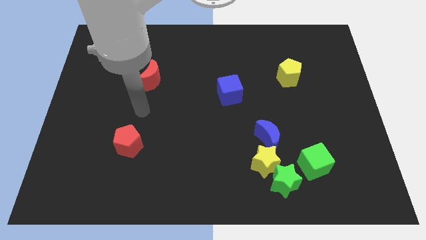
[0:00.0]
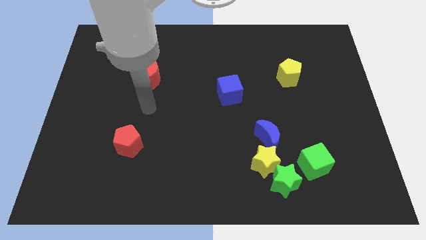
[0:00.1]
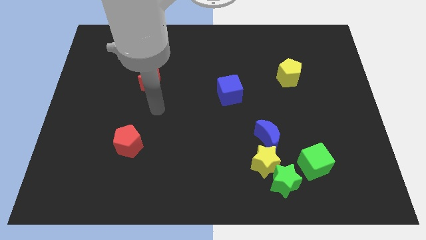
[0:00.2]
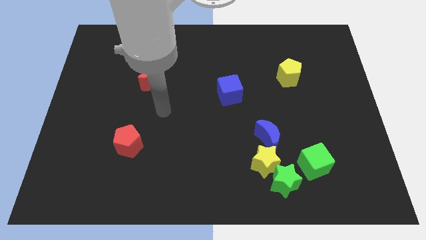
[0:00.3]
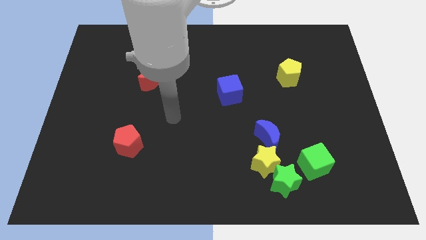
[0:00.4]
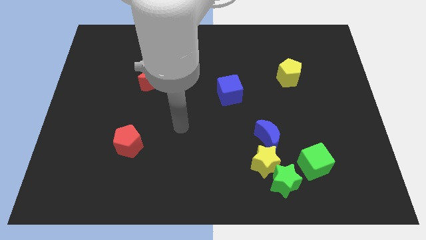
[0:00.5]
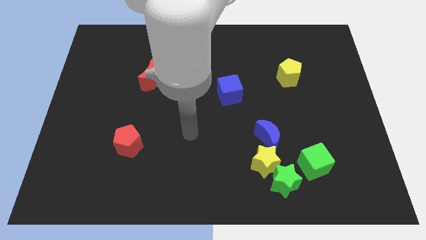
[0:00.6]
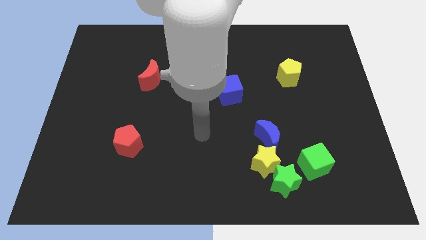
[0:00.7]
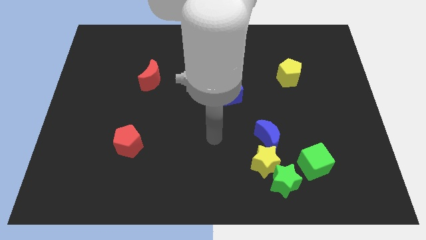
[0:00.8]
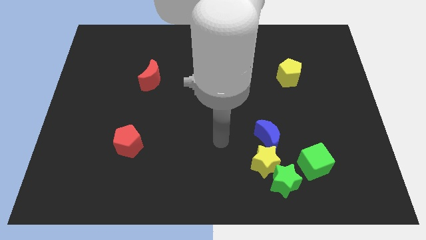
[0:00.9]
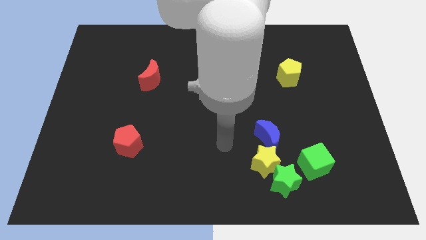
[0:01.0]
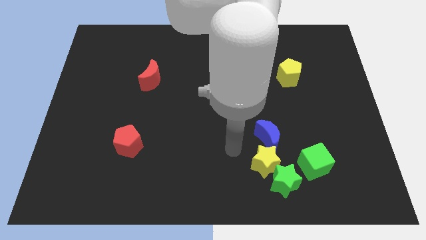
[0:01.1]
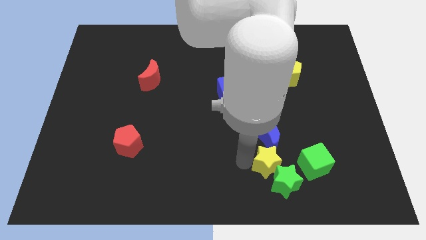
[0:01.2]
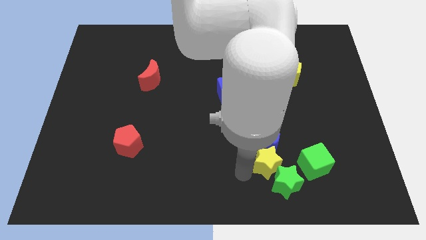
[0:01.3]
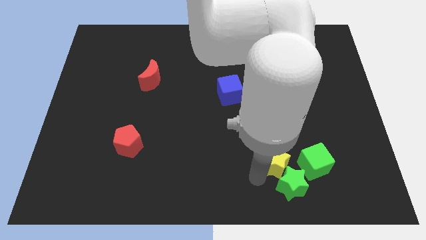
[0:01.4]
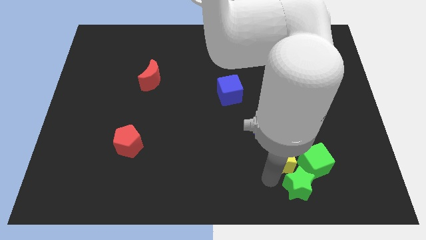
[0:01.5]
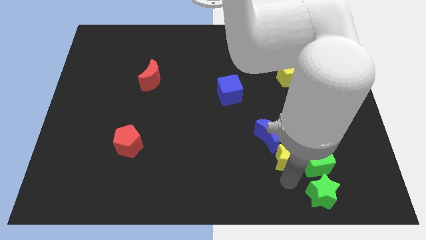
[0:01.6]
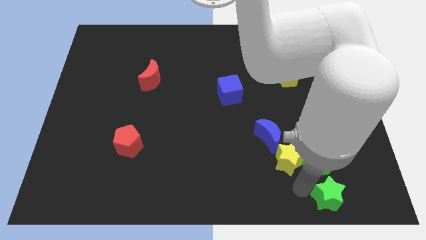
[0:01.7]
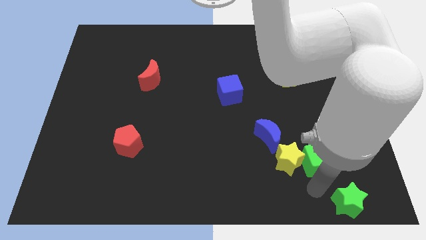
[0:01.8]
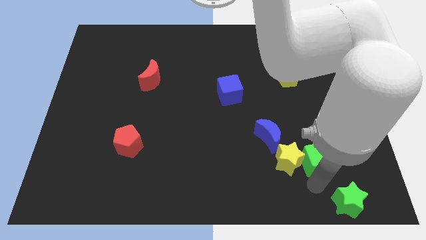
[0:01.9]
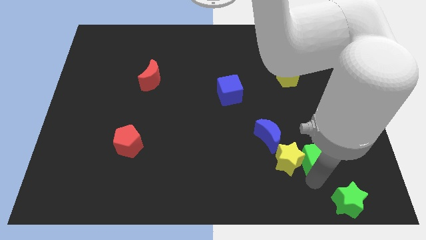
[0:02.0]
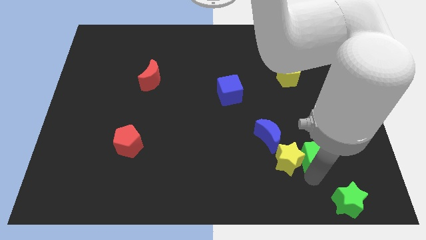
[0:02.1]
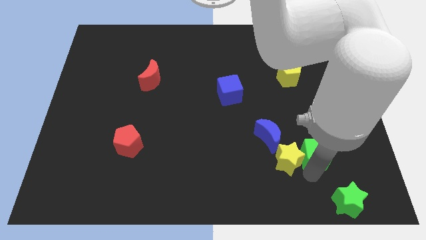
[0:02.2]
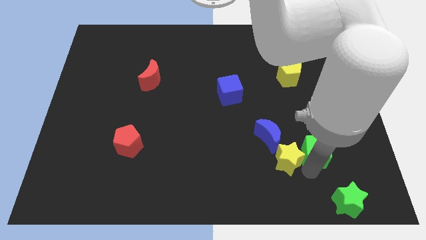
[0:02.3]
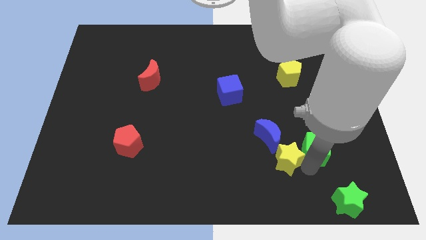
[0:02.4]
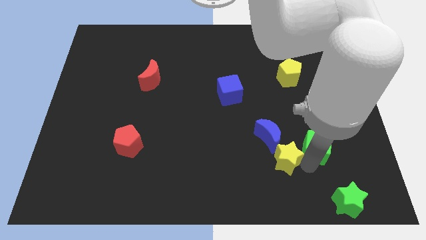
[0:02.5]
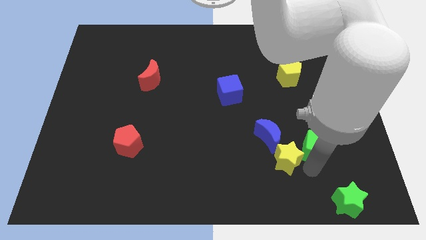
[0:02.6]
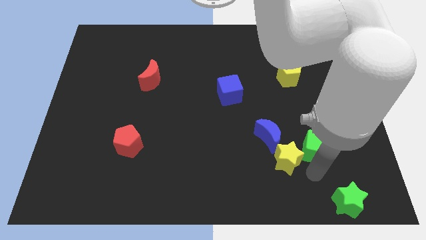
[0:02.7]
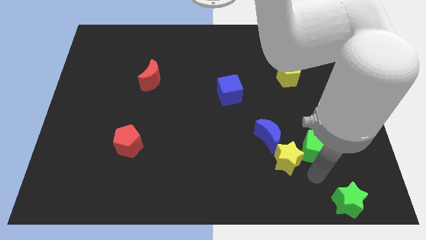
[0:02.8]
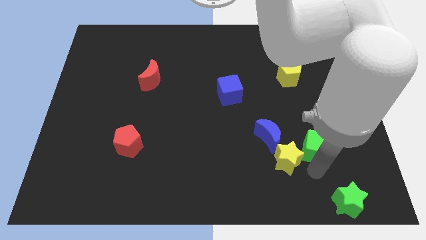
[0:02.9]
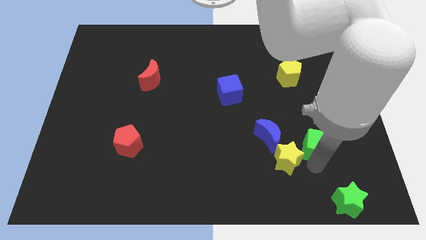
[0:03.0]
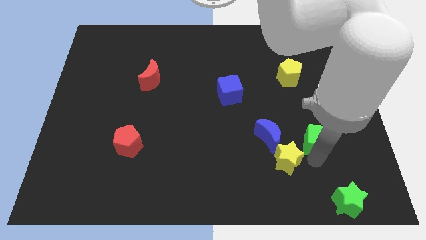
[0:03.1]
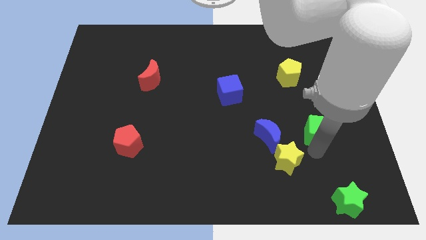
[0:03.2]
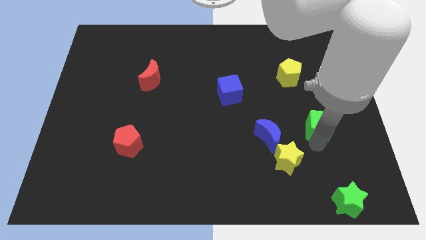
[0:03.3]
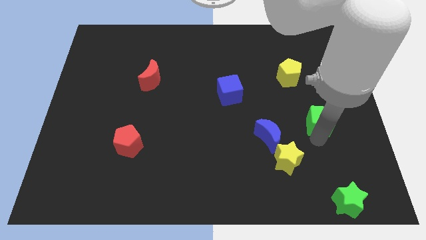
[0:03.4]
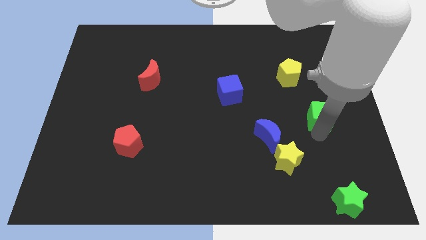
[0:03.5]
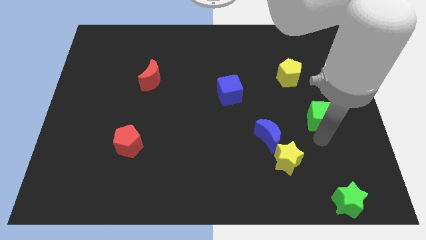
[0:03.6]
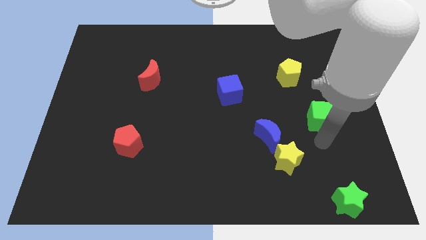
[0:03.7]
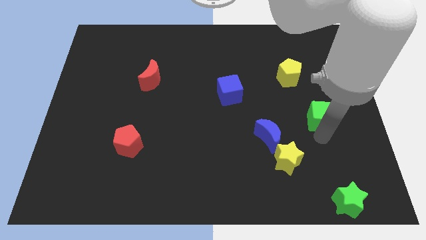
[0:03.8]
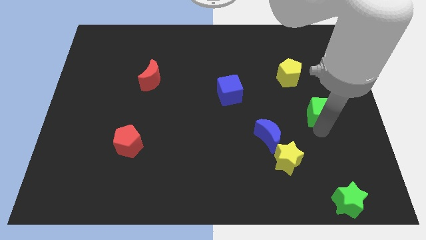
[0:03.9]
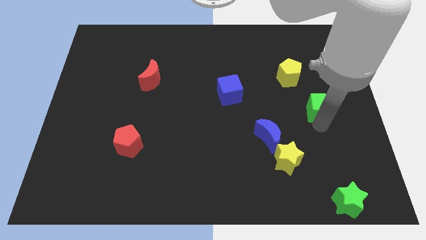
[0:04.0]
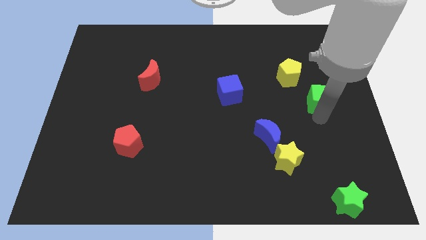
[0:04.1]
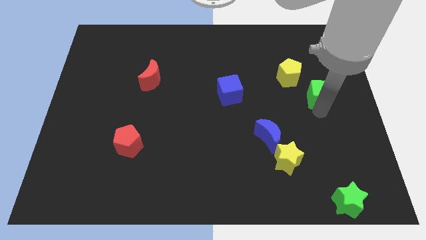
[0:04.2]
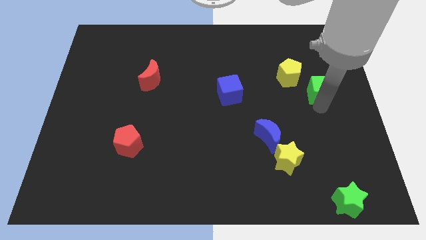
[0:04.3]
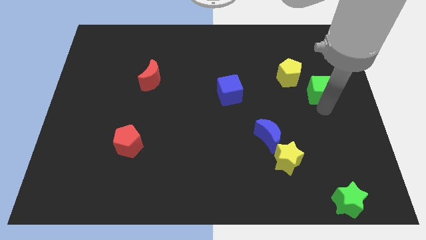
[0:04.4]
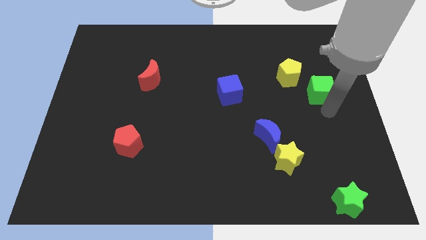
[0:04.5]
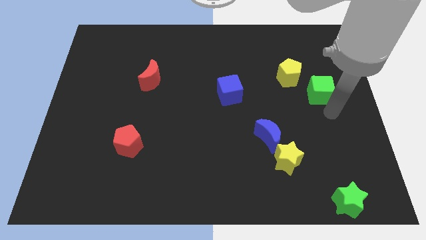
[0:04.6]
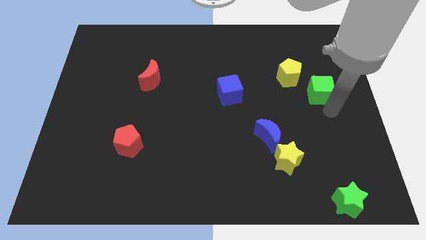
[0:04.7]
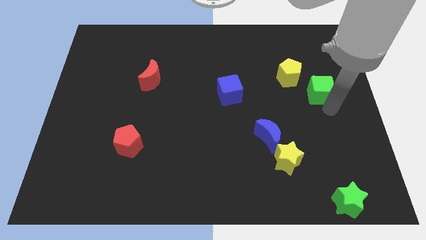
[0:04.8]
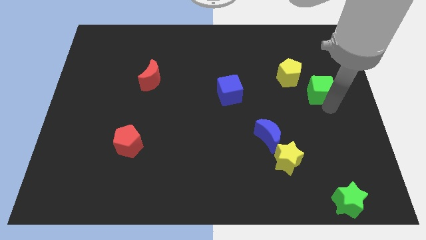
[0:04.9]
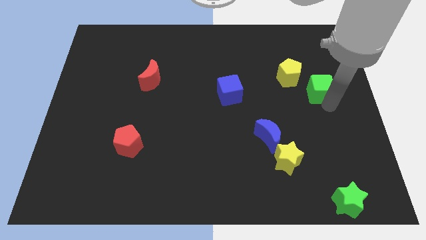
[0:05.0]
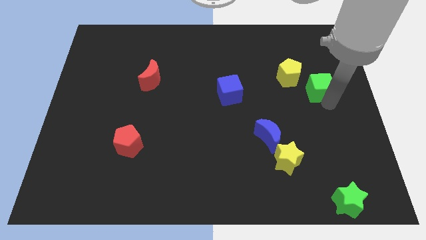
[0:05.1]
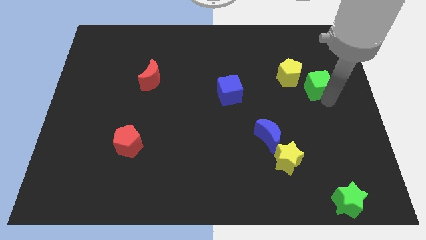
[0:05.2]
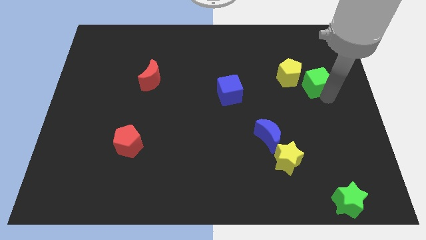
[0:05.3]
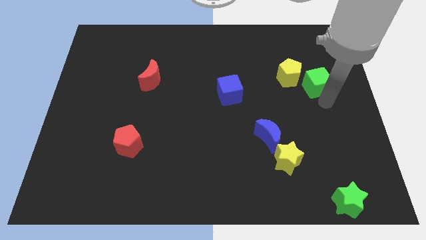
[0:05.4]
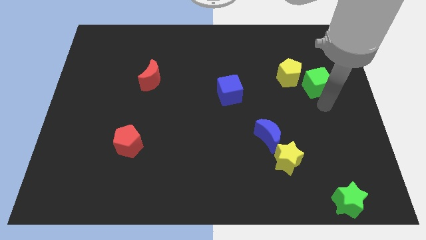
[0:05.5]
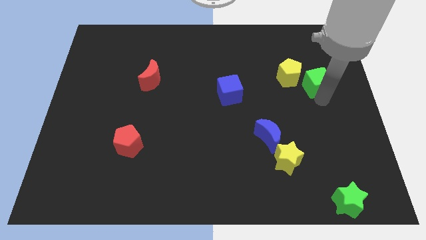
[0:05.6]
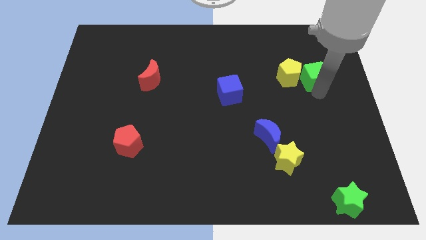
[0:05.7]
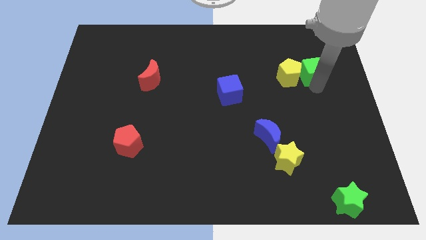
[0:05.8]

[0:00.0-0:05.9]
push the green cube diagonally up and to the right of the yellow pentagon

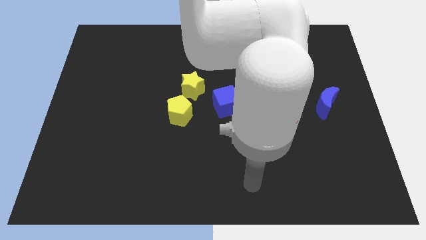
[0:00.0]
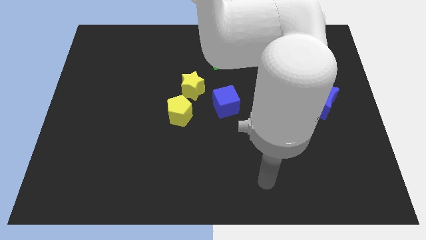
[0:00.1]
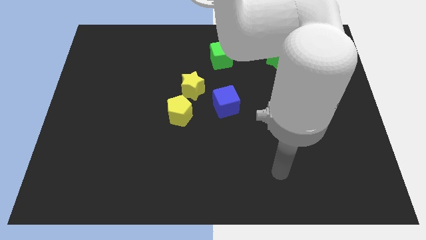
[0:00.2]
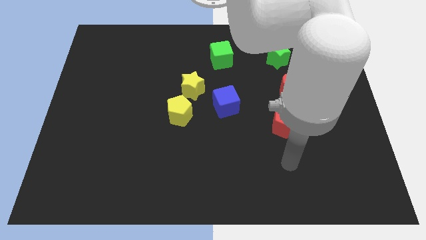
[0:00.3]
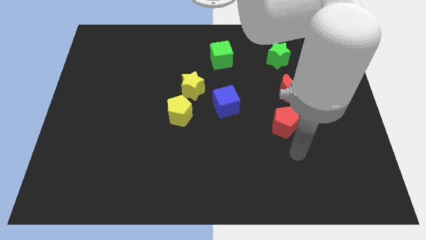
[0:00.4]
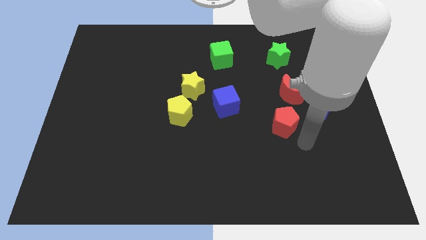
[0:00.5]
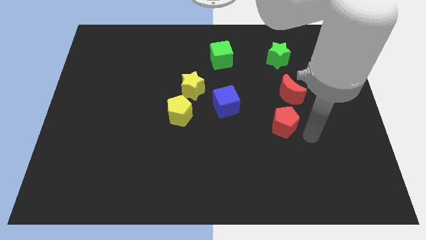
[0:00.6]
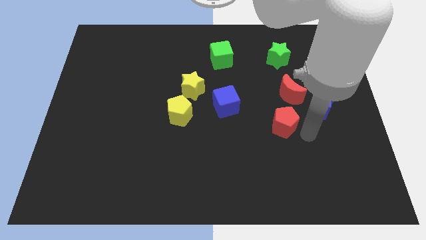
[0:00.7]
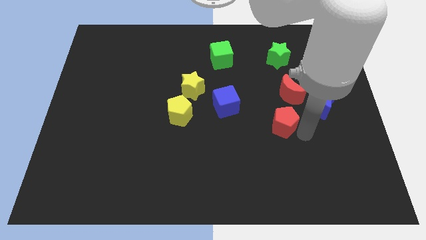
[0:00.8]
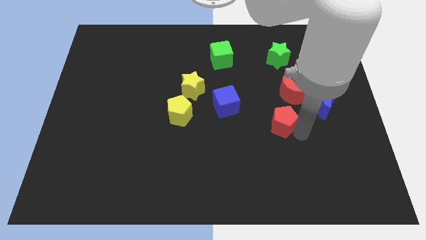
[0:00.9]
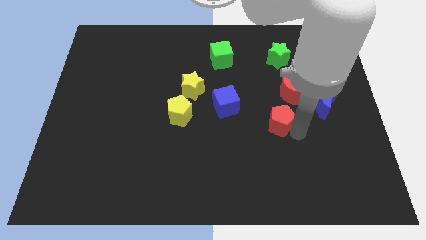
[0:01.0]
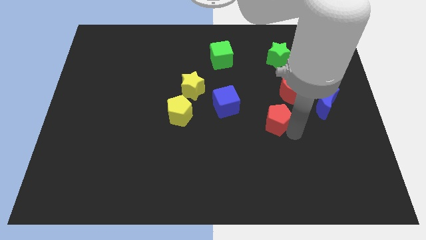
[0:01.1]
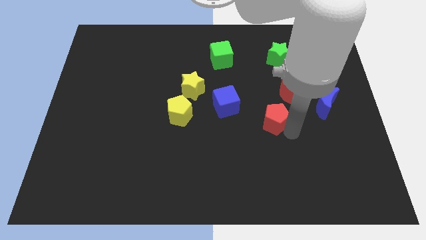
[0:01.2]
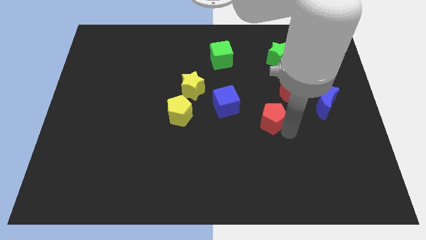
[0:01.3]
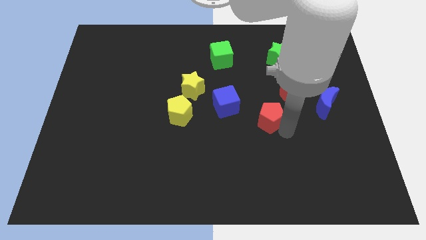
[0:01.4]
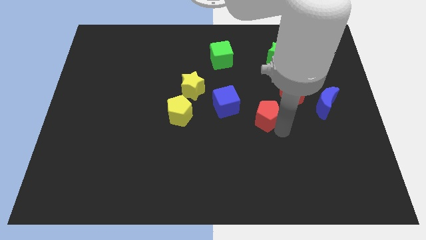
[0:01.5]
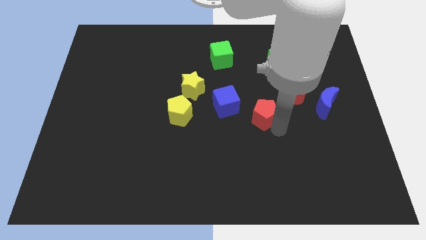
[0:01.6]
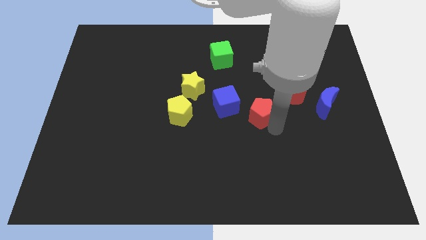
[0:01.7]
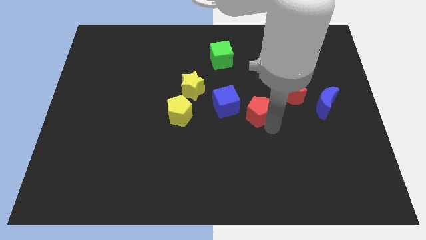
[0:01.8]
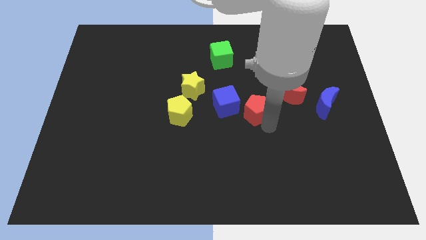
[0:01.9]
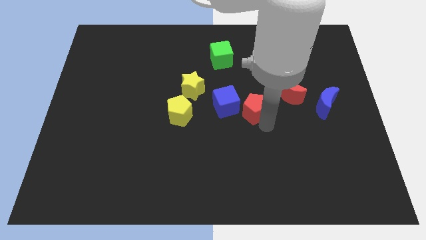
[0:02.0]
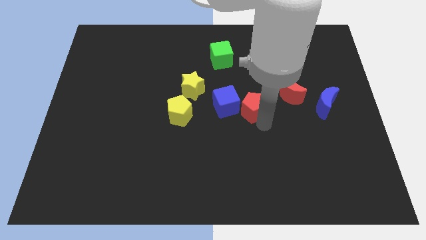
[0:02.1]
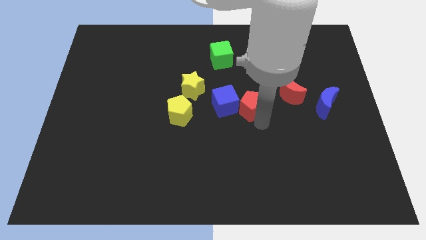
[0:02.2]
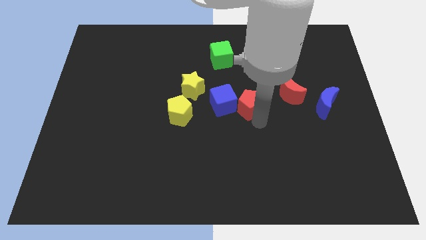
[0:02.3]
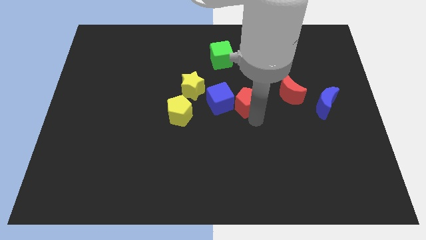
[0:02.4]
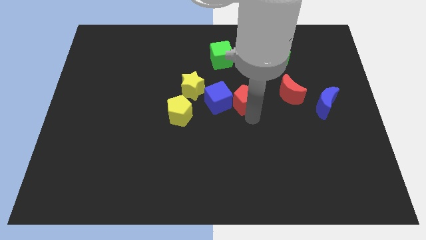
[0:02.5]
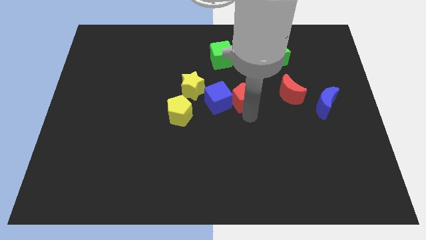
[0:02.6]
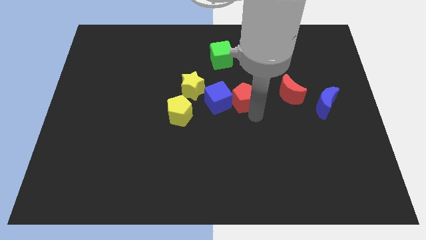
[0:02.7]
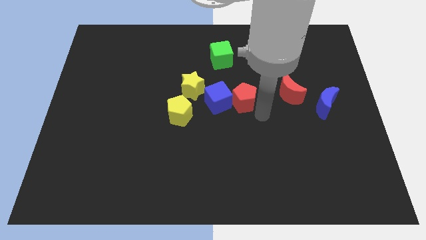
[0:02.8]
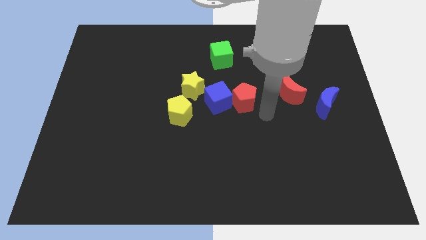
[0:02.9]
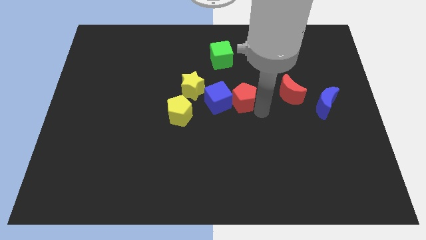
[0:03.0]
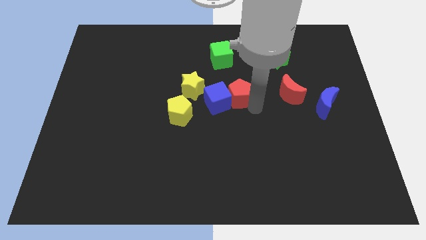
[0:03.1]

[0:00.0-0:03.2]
push the red pentagon below the green cube
